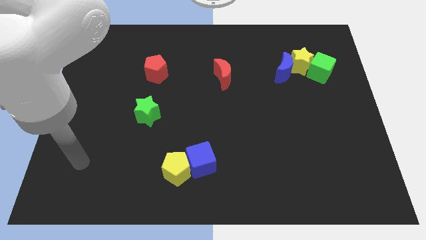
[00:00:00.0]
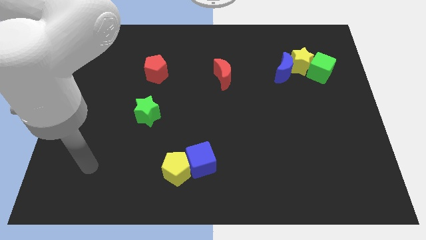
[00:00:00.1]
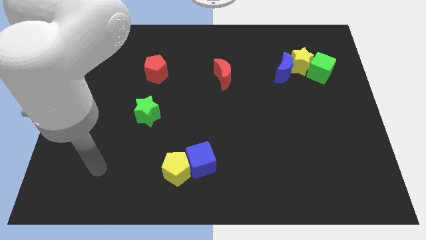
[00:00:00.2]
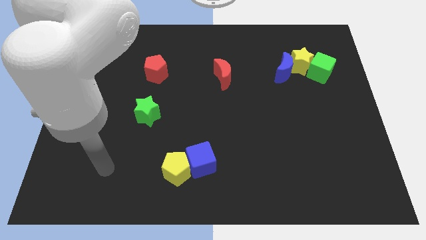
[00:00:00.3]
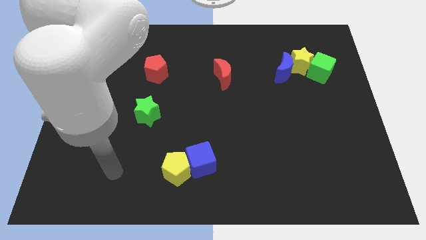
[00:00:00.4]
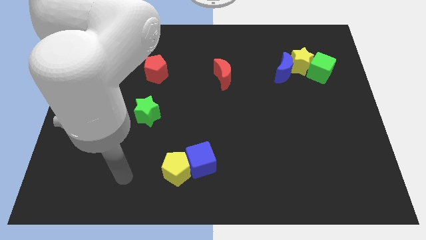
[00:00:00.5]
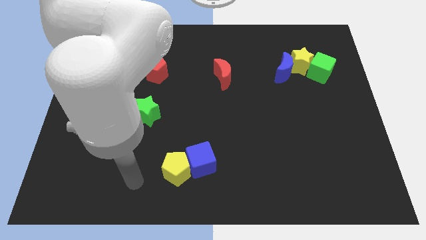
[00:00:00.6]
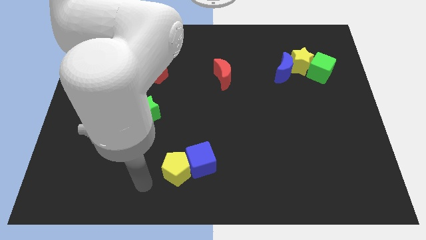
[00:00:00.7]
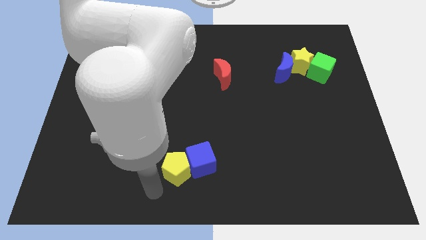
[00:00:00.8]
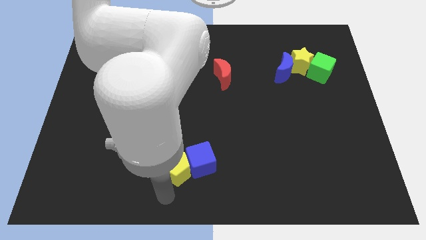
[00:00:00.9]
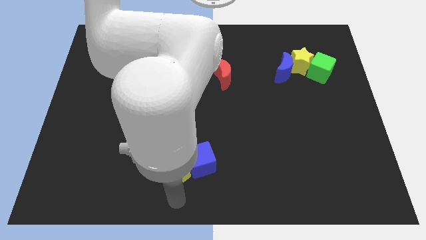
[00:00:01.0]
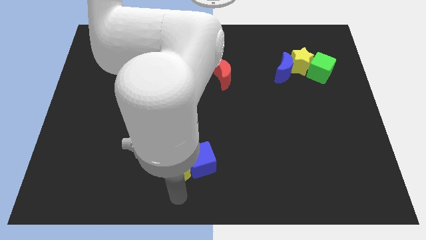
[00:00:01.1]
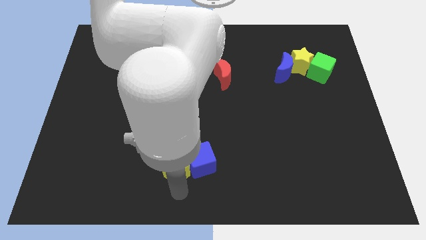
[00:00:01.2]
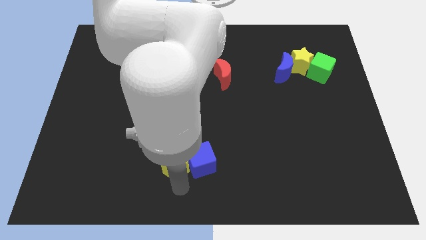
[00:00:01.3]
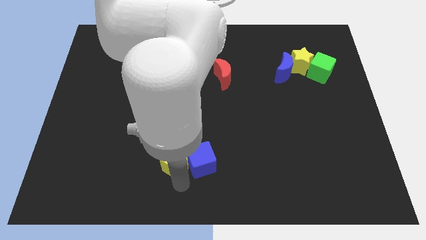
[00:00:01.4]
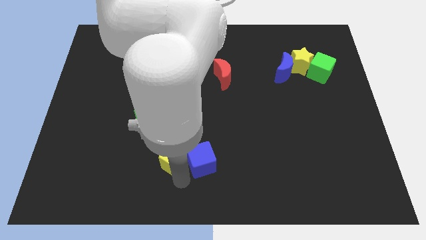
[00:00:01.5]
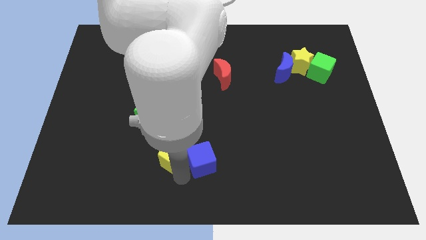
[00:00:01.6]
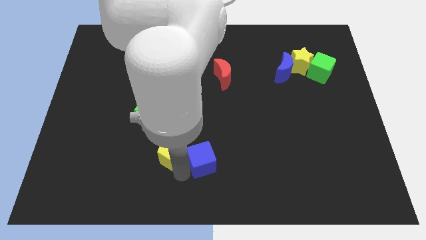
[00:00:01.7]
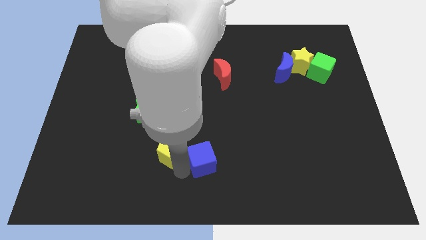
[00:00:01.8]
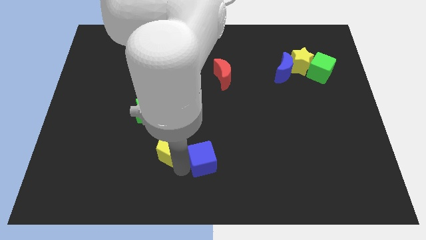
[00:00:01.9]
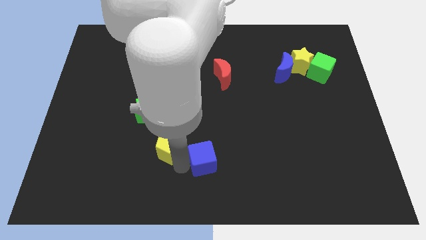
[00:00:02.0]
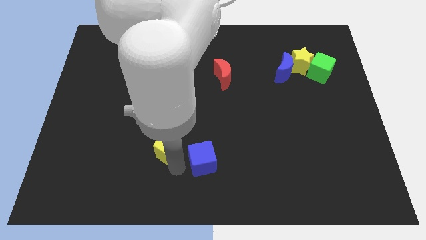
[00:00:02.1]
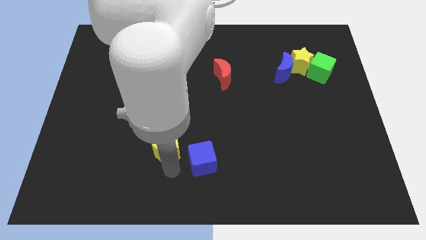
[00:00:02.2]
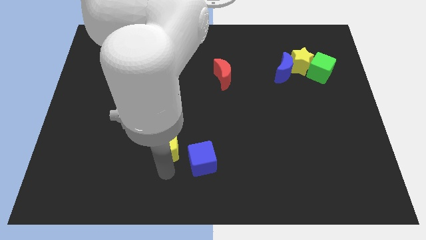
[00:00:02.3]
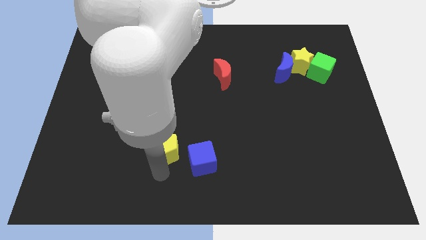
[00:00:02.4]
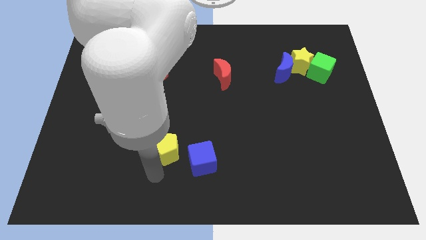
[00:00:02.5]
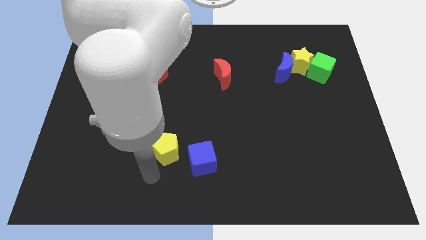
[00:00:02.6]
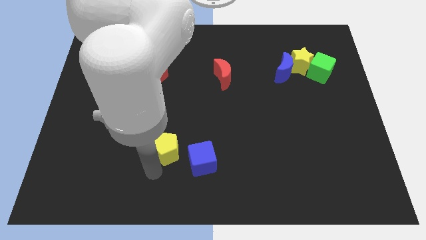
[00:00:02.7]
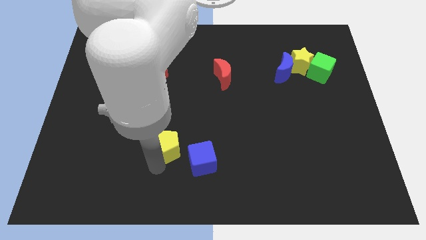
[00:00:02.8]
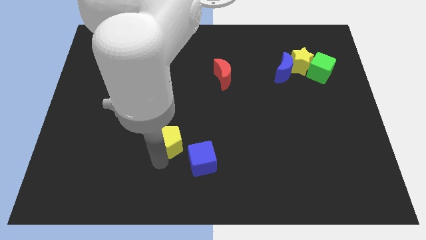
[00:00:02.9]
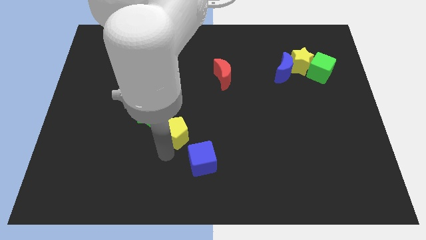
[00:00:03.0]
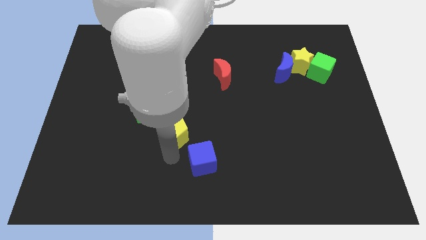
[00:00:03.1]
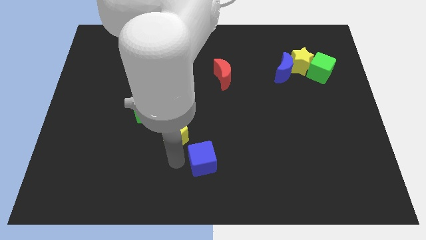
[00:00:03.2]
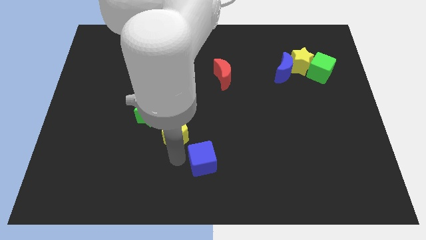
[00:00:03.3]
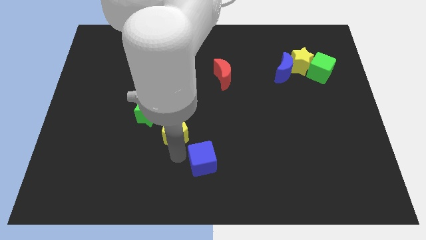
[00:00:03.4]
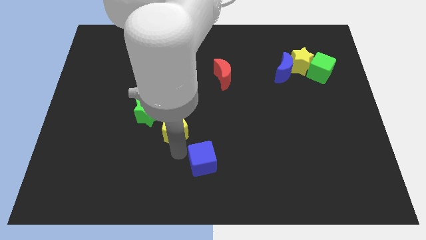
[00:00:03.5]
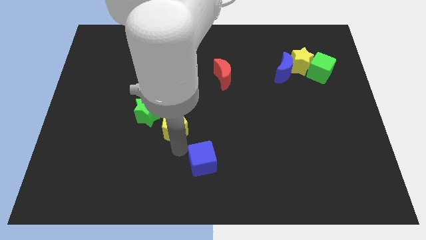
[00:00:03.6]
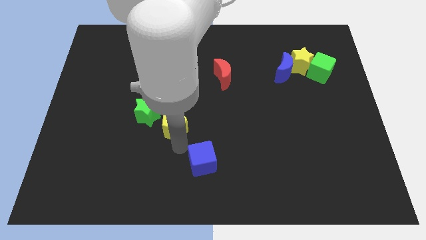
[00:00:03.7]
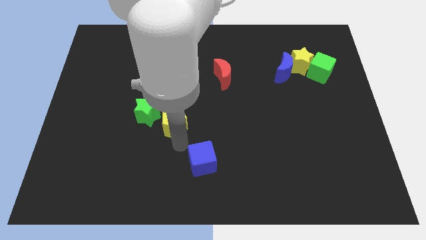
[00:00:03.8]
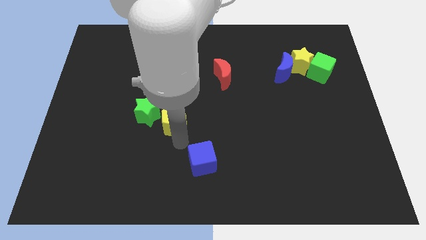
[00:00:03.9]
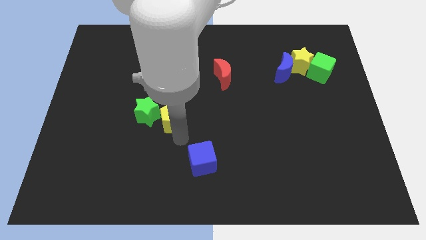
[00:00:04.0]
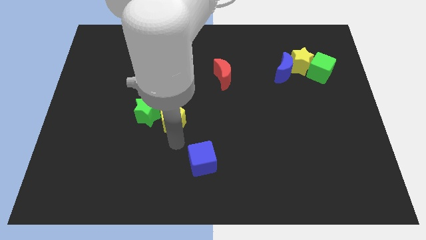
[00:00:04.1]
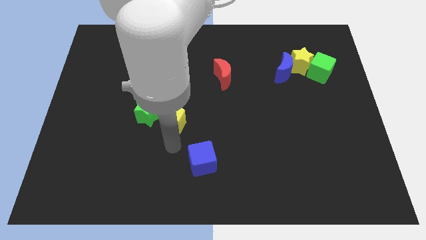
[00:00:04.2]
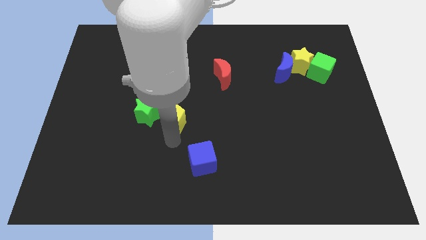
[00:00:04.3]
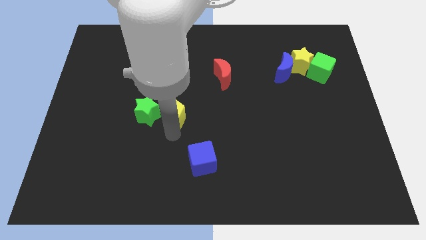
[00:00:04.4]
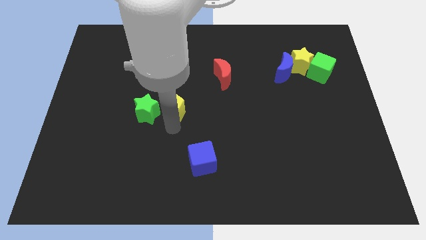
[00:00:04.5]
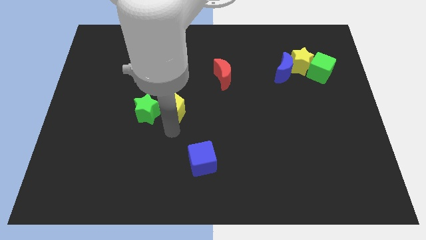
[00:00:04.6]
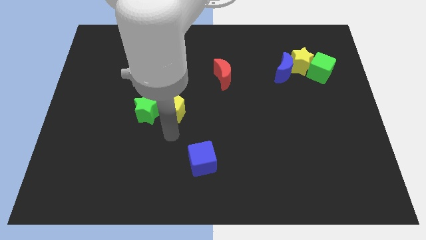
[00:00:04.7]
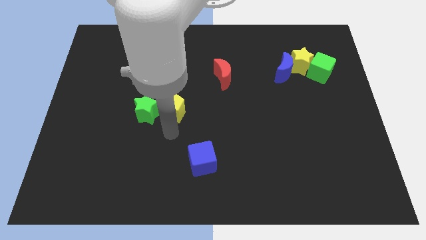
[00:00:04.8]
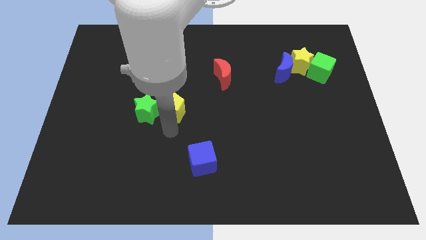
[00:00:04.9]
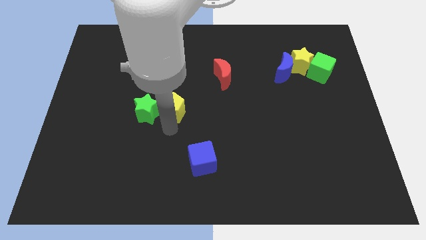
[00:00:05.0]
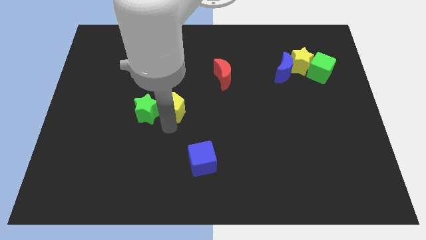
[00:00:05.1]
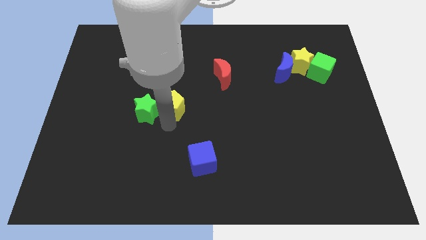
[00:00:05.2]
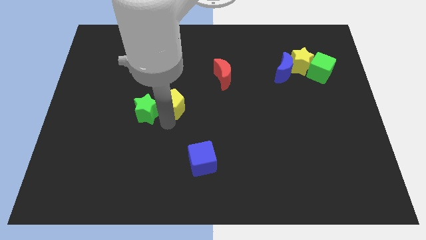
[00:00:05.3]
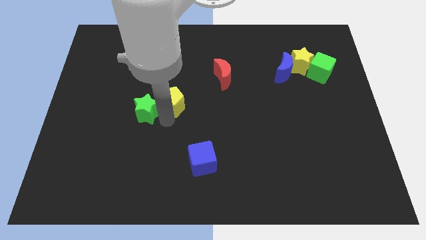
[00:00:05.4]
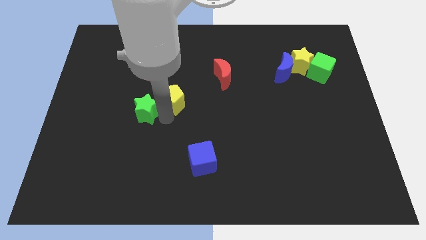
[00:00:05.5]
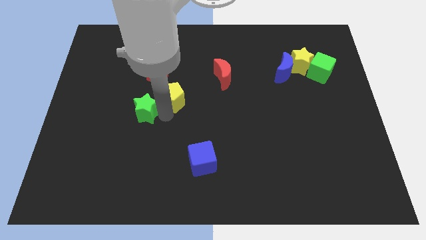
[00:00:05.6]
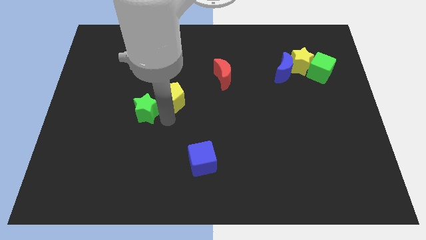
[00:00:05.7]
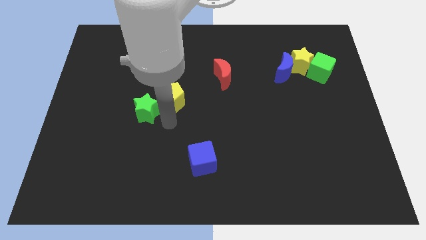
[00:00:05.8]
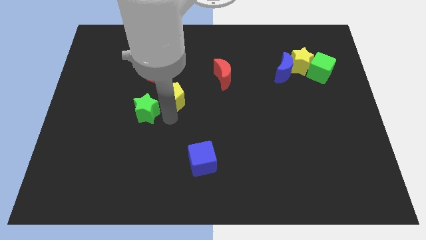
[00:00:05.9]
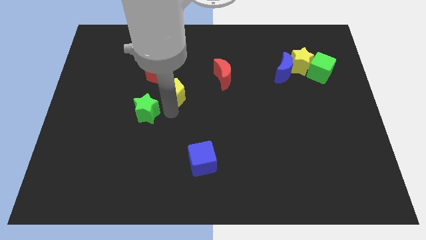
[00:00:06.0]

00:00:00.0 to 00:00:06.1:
push the yellow pentagon up

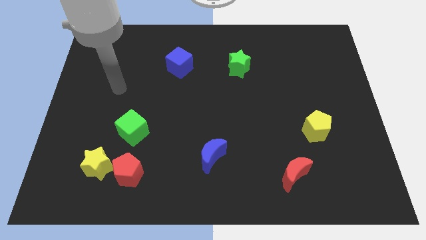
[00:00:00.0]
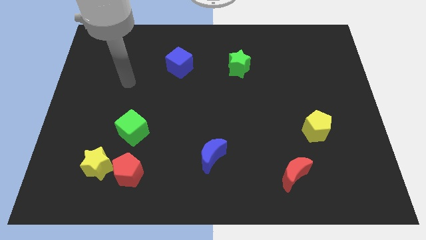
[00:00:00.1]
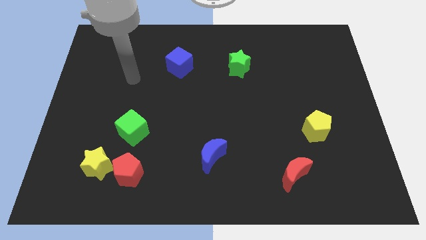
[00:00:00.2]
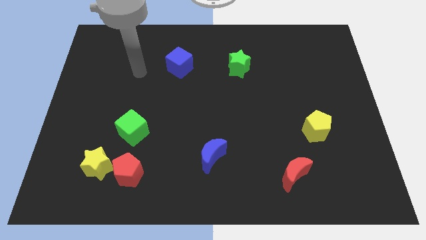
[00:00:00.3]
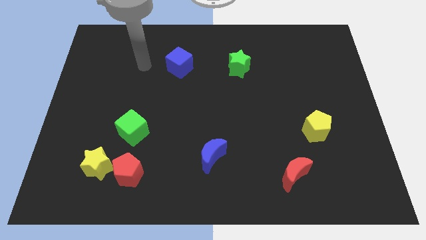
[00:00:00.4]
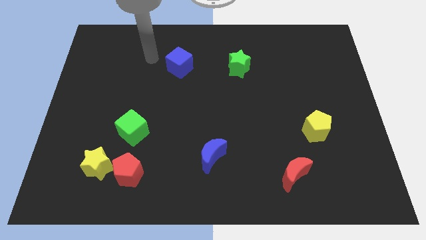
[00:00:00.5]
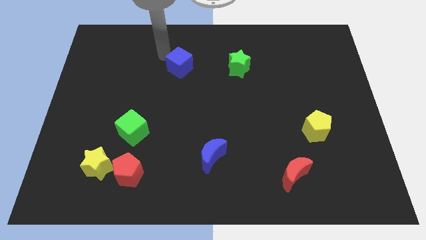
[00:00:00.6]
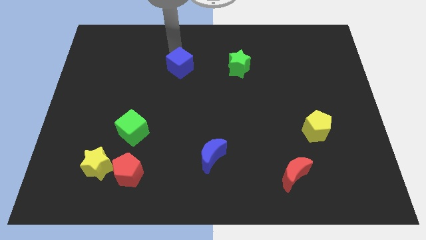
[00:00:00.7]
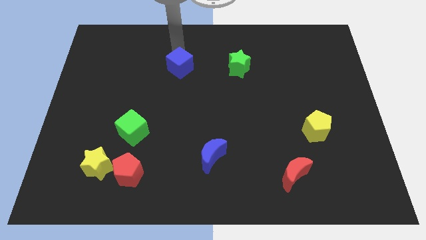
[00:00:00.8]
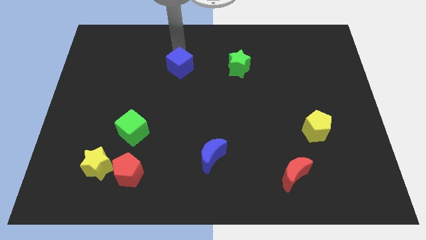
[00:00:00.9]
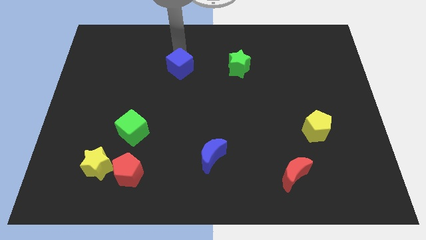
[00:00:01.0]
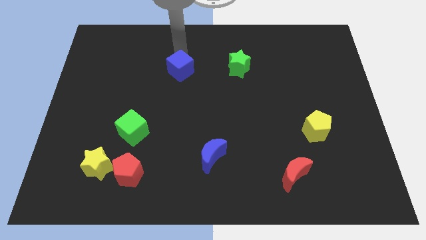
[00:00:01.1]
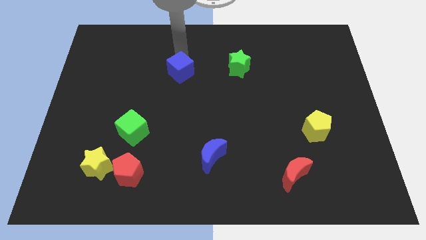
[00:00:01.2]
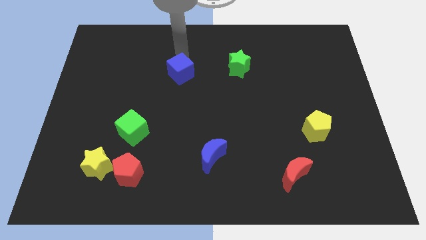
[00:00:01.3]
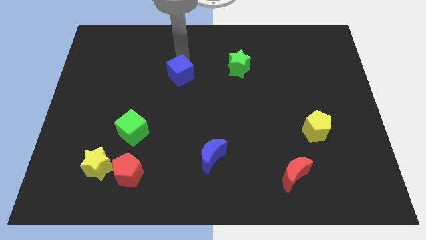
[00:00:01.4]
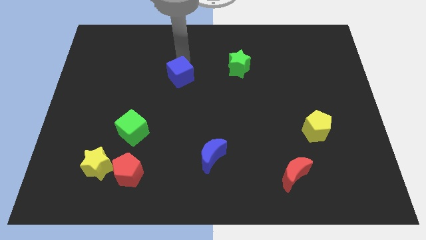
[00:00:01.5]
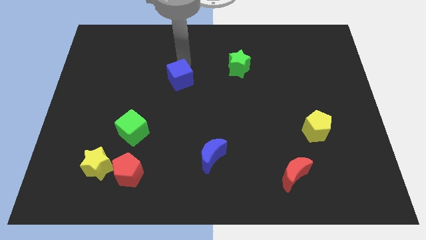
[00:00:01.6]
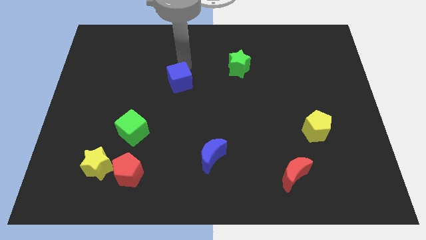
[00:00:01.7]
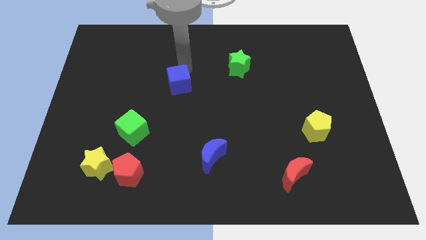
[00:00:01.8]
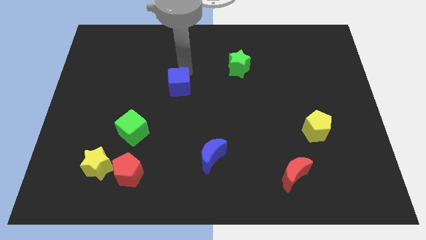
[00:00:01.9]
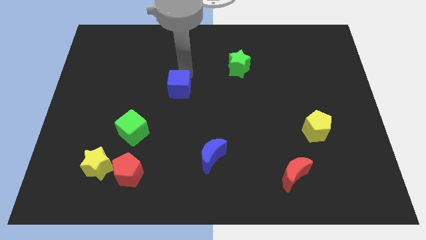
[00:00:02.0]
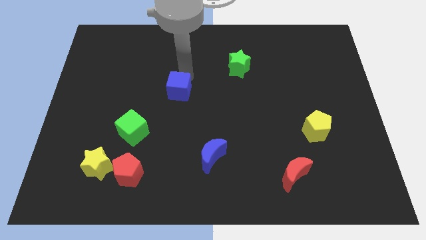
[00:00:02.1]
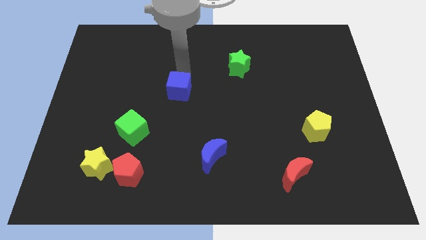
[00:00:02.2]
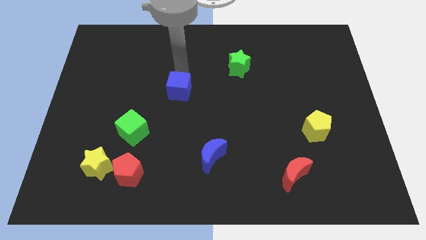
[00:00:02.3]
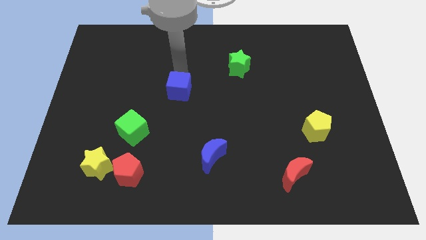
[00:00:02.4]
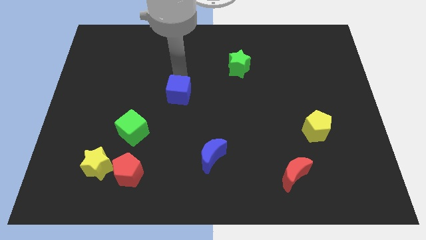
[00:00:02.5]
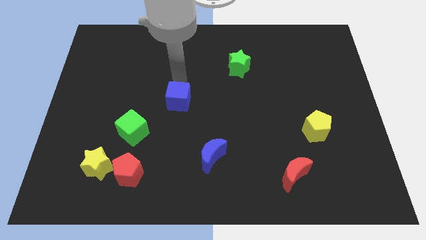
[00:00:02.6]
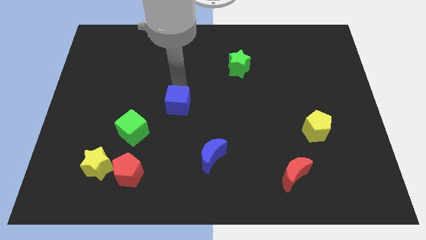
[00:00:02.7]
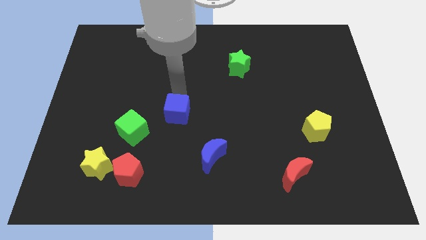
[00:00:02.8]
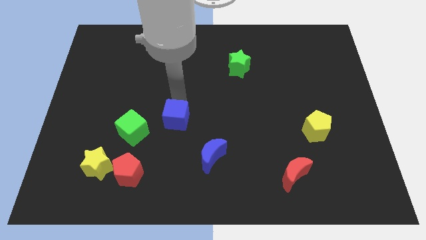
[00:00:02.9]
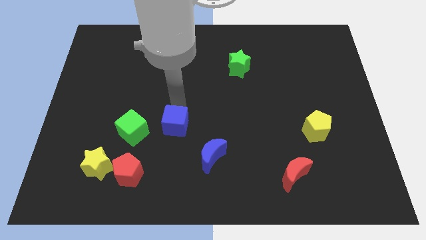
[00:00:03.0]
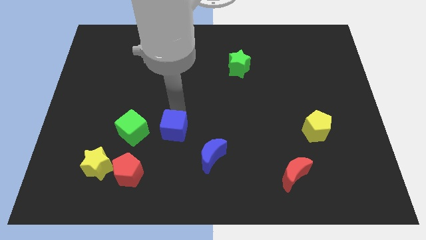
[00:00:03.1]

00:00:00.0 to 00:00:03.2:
move the blue cube downwards
